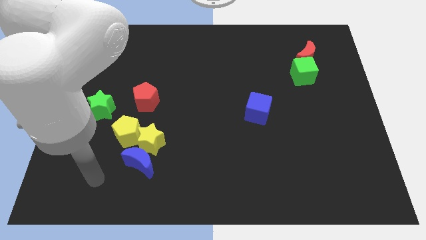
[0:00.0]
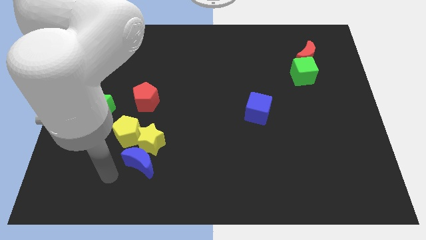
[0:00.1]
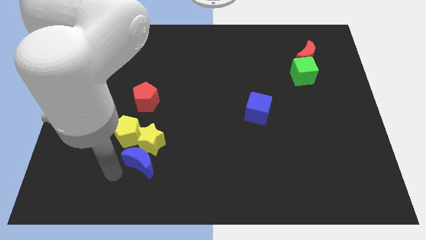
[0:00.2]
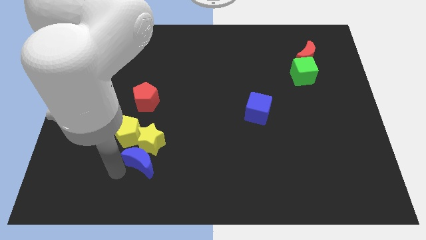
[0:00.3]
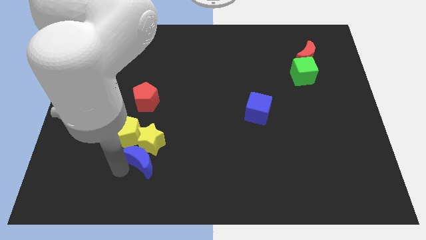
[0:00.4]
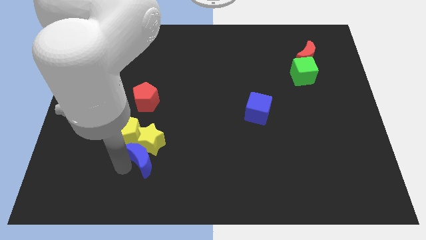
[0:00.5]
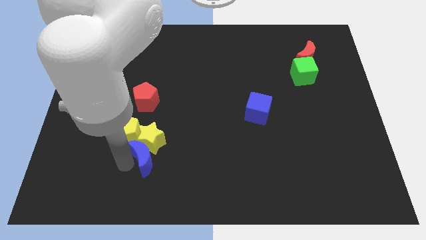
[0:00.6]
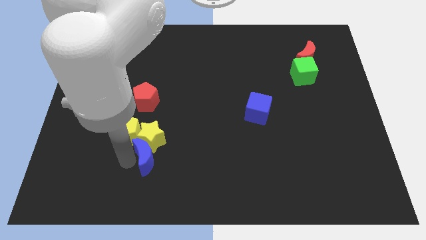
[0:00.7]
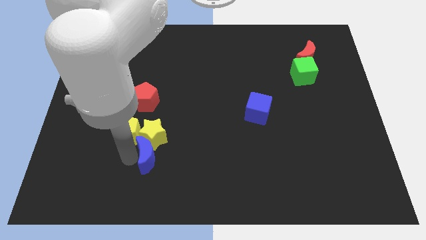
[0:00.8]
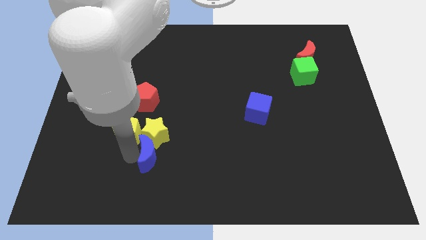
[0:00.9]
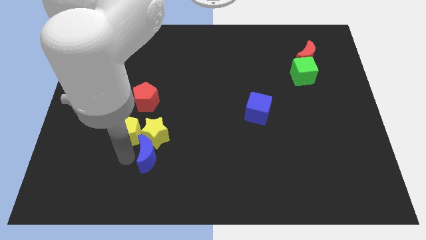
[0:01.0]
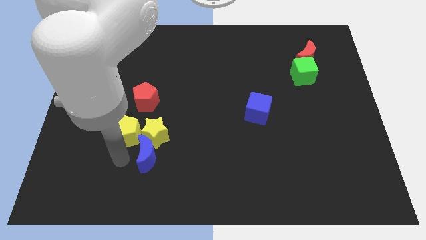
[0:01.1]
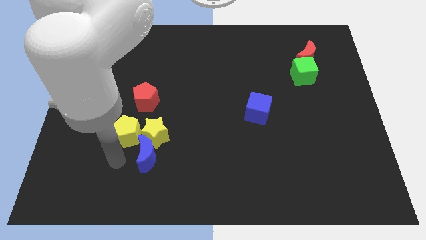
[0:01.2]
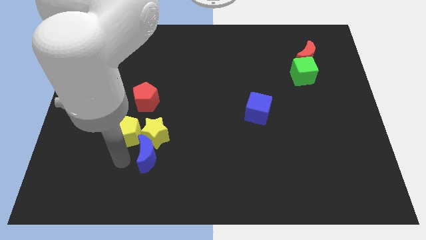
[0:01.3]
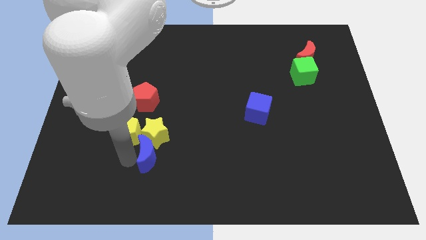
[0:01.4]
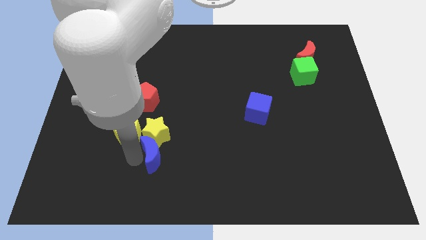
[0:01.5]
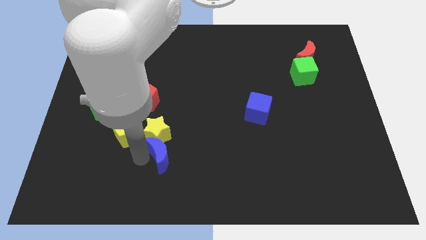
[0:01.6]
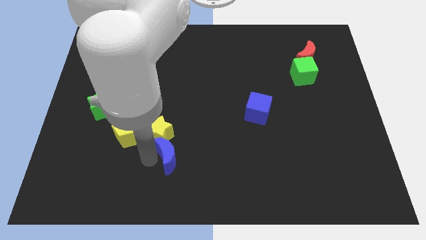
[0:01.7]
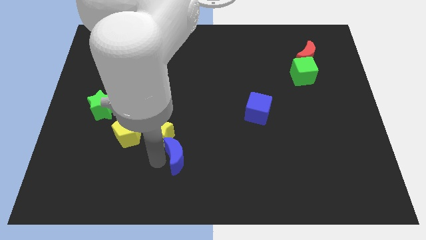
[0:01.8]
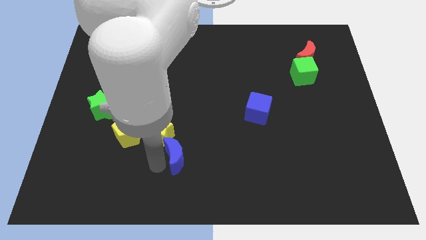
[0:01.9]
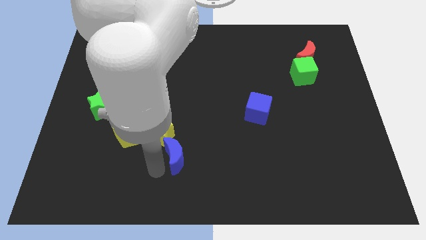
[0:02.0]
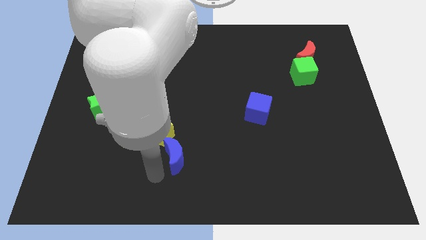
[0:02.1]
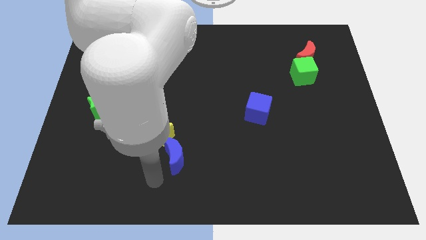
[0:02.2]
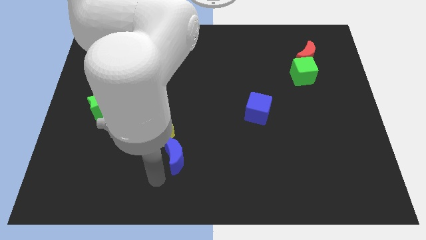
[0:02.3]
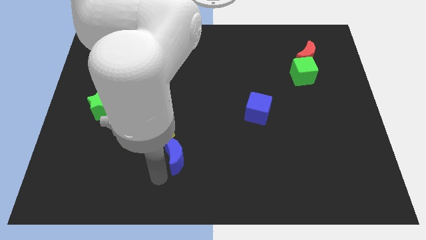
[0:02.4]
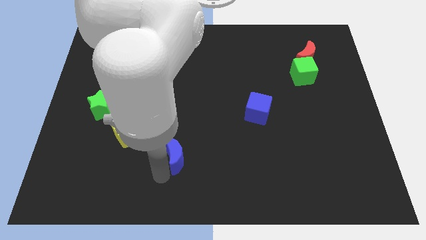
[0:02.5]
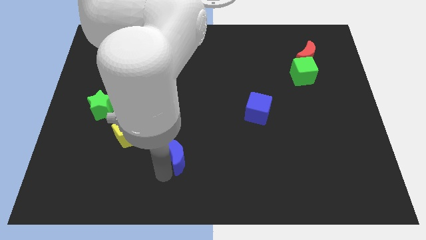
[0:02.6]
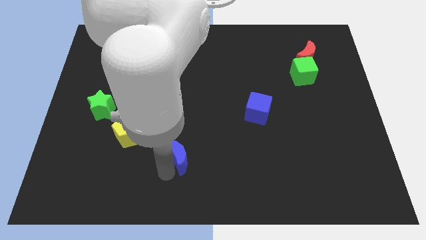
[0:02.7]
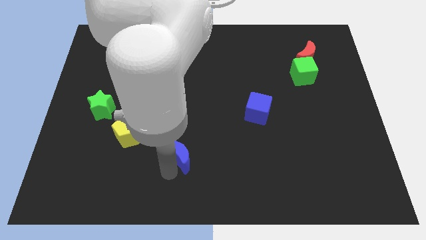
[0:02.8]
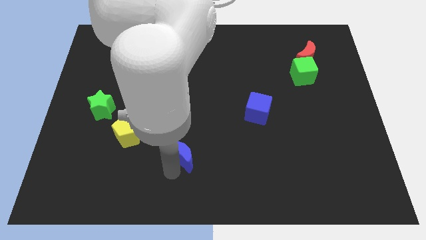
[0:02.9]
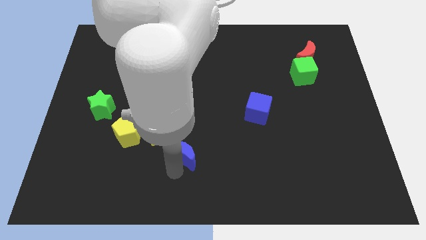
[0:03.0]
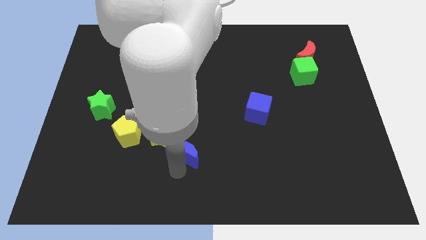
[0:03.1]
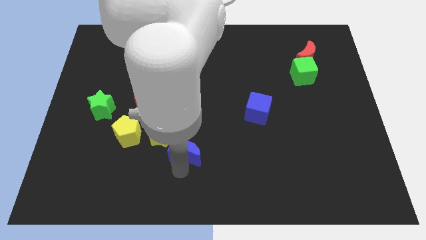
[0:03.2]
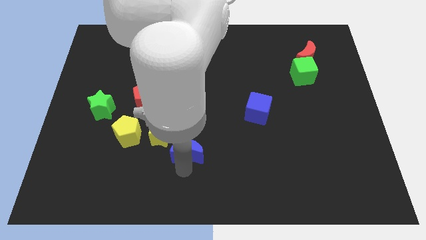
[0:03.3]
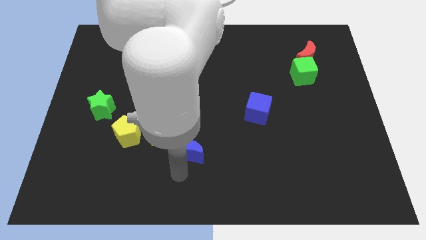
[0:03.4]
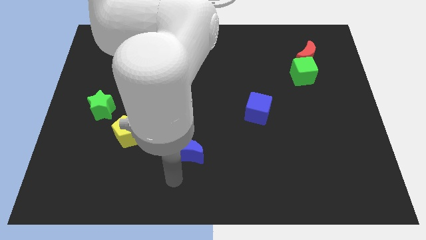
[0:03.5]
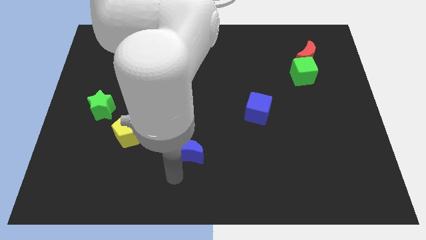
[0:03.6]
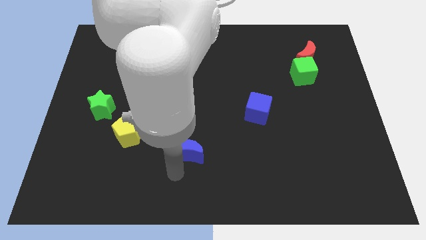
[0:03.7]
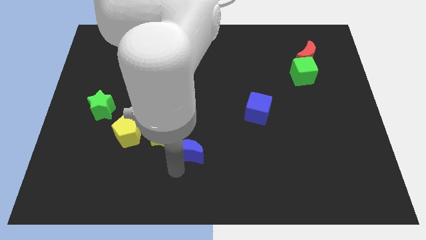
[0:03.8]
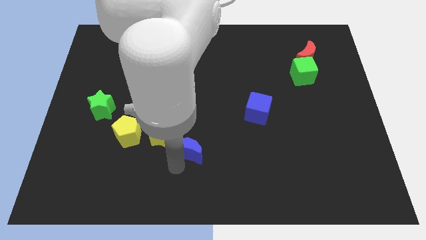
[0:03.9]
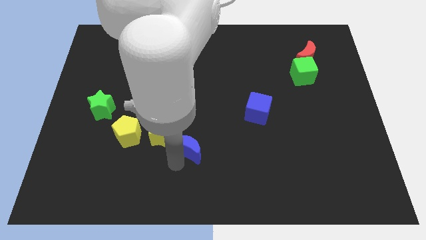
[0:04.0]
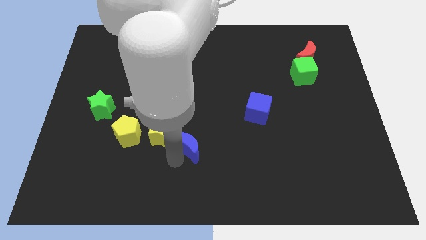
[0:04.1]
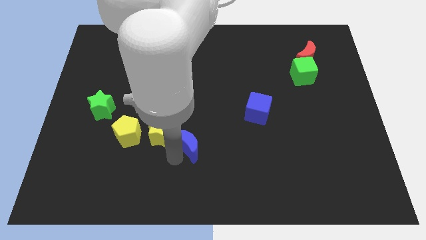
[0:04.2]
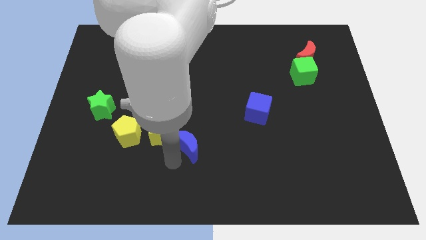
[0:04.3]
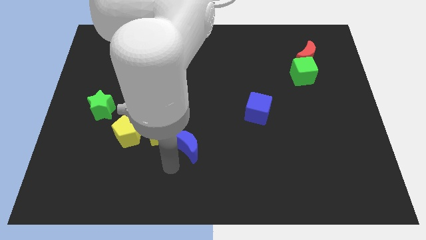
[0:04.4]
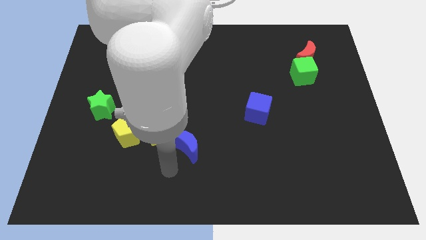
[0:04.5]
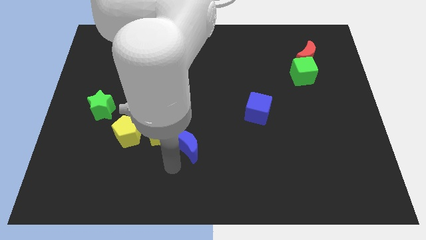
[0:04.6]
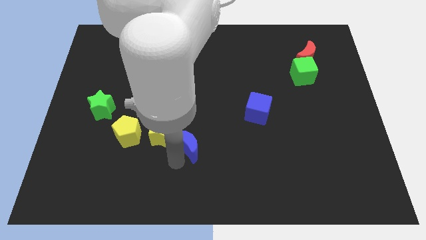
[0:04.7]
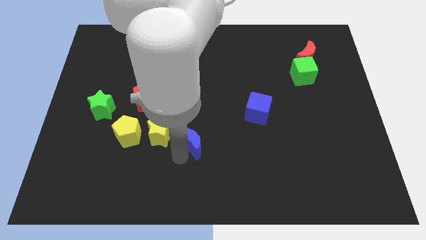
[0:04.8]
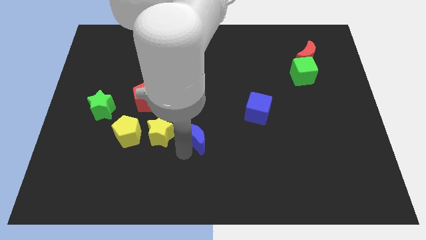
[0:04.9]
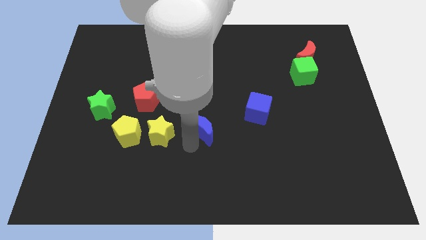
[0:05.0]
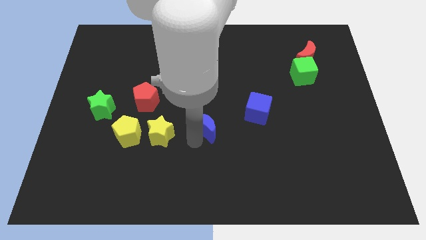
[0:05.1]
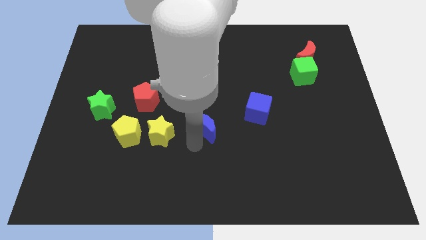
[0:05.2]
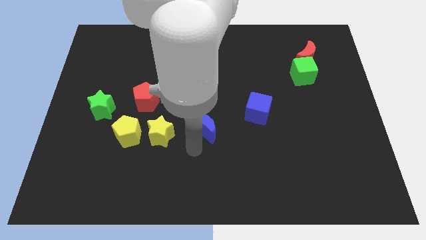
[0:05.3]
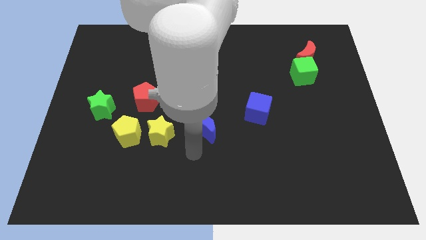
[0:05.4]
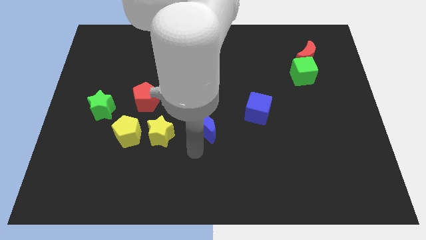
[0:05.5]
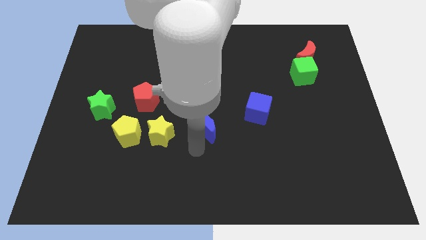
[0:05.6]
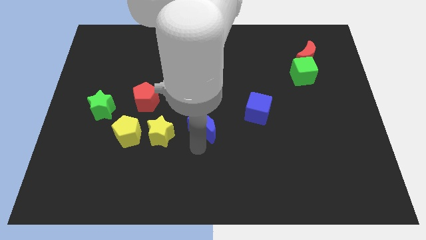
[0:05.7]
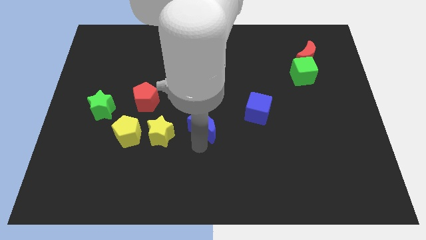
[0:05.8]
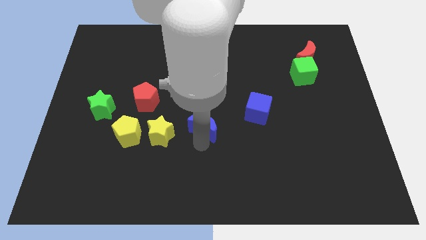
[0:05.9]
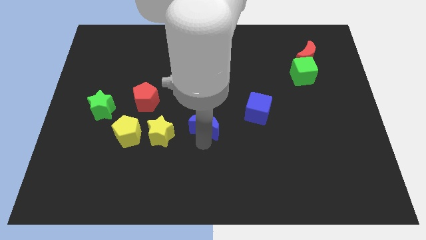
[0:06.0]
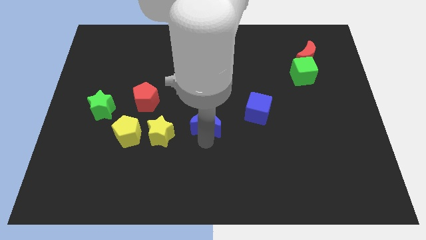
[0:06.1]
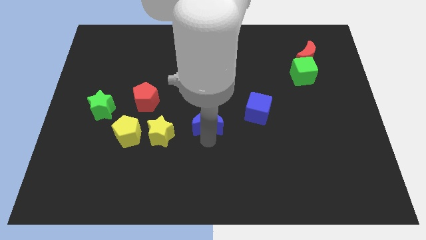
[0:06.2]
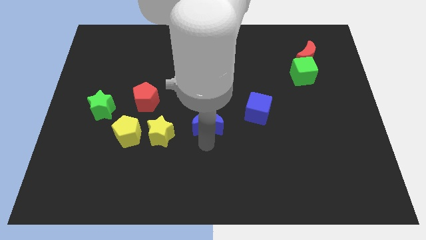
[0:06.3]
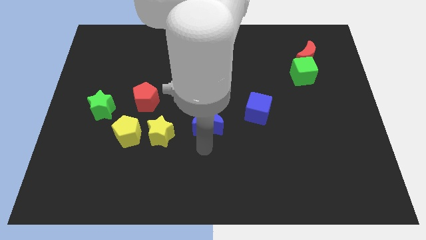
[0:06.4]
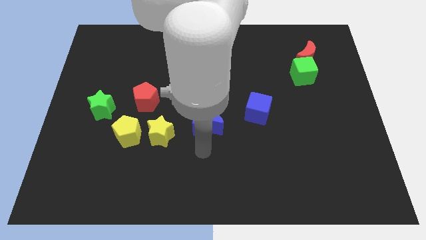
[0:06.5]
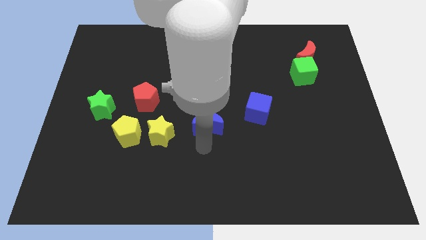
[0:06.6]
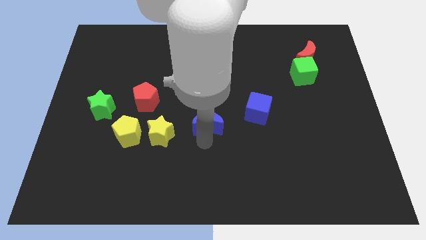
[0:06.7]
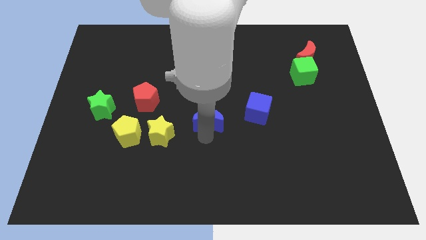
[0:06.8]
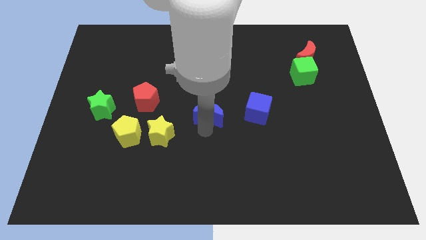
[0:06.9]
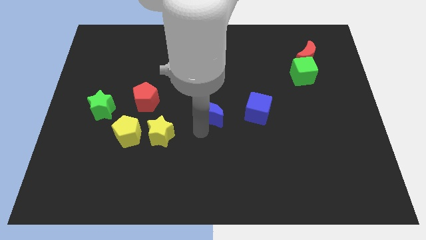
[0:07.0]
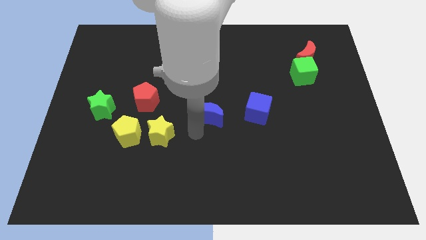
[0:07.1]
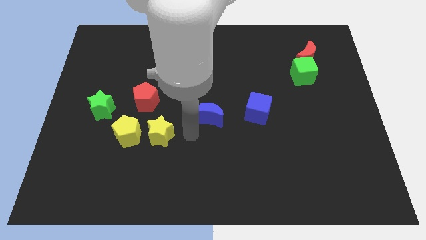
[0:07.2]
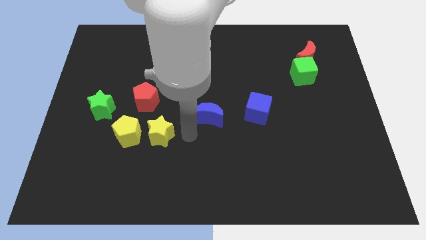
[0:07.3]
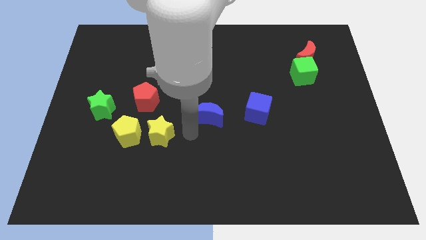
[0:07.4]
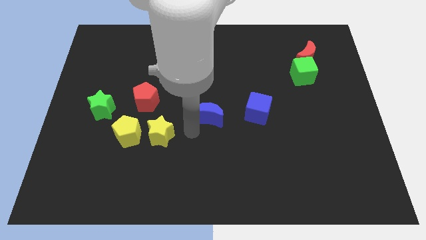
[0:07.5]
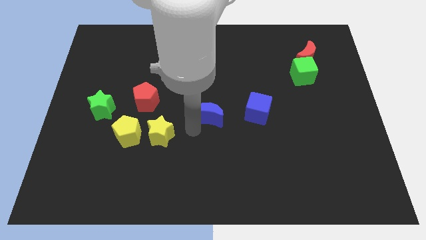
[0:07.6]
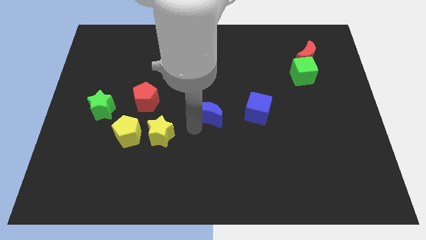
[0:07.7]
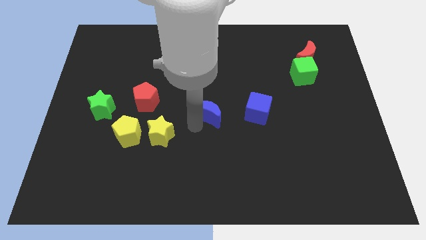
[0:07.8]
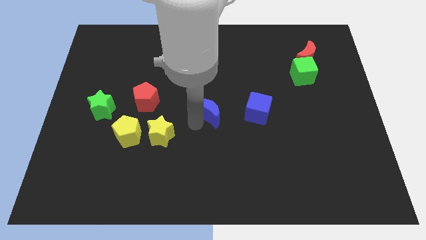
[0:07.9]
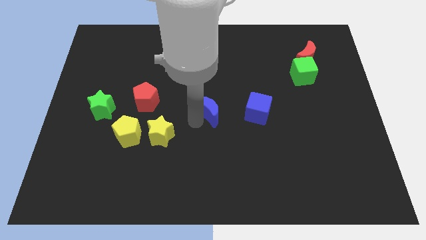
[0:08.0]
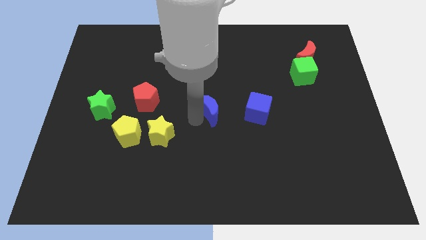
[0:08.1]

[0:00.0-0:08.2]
push the blue moon diagonally upwards and to the right
